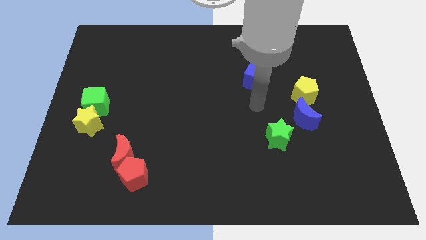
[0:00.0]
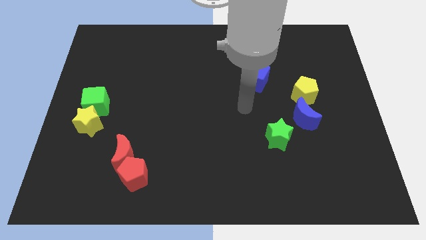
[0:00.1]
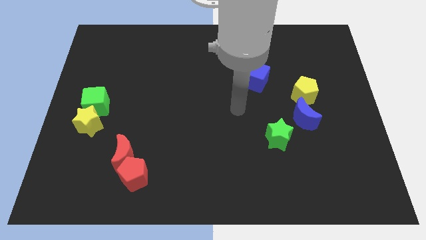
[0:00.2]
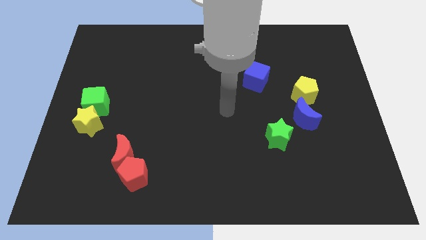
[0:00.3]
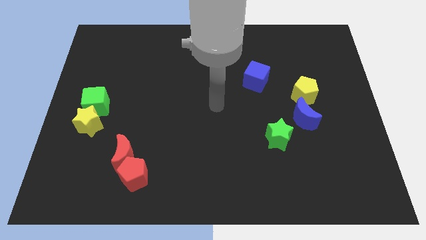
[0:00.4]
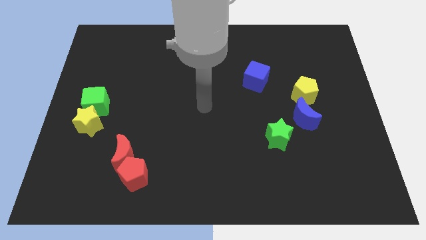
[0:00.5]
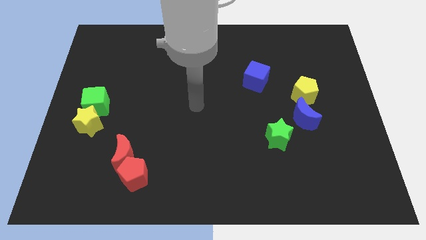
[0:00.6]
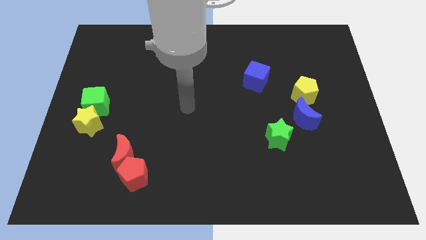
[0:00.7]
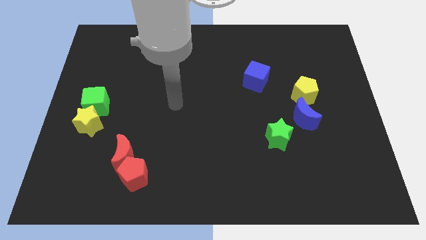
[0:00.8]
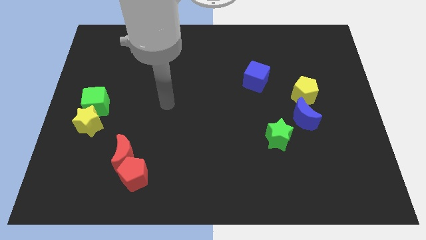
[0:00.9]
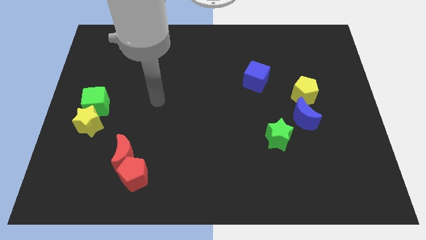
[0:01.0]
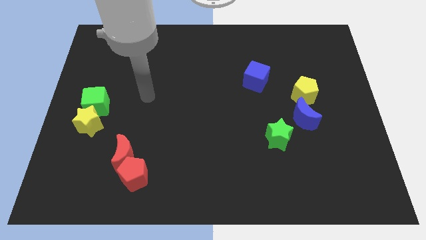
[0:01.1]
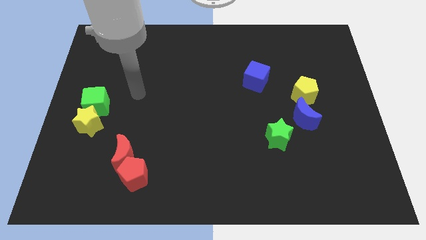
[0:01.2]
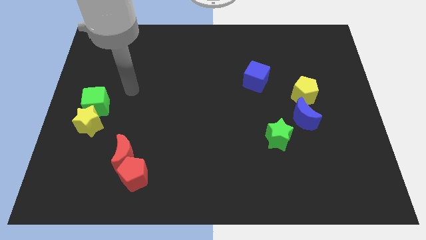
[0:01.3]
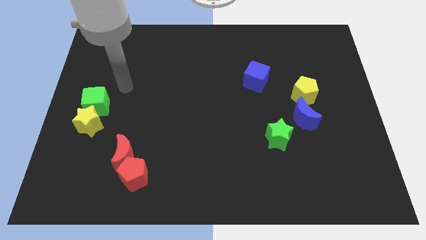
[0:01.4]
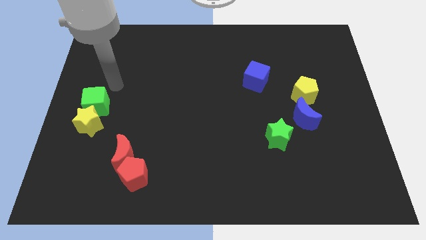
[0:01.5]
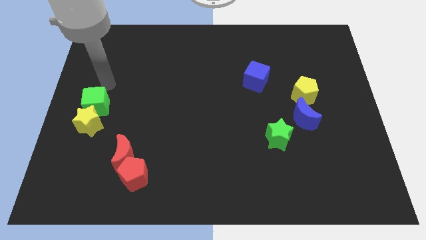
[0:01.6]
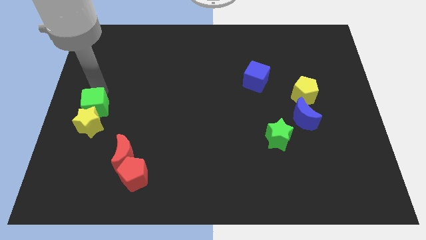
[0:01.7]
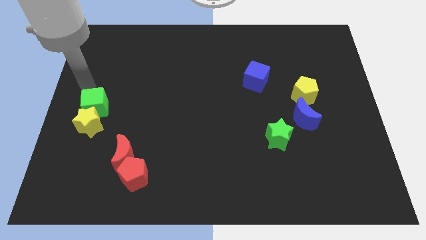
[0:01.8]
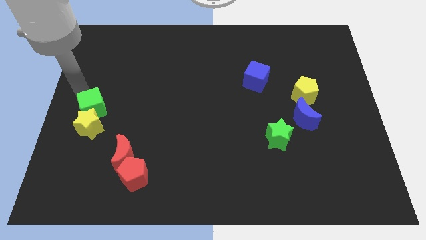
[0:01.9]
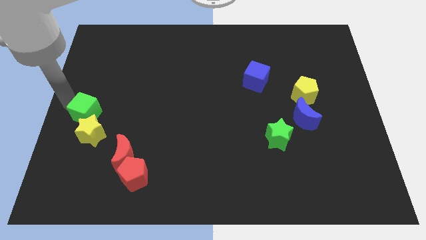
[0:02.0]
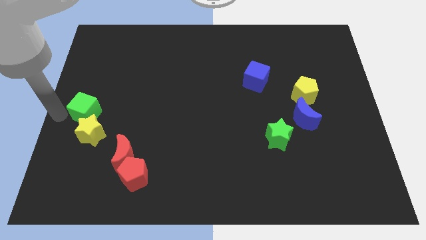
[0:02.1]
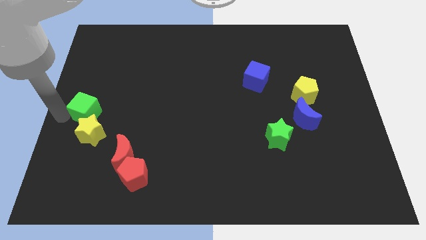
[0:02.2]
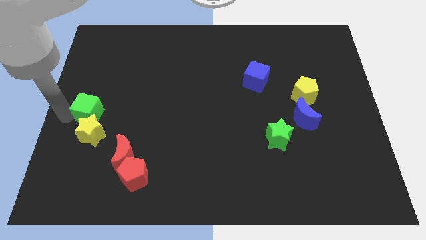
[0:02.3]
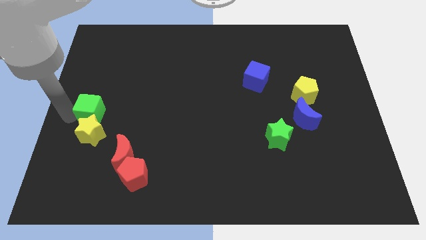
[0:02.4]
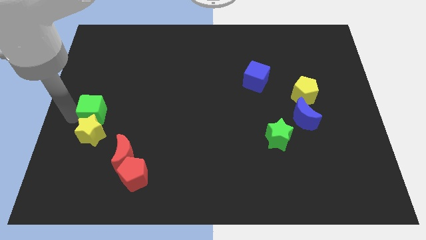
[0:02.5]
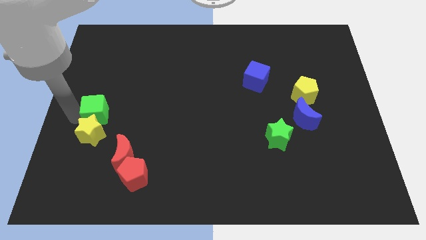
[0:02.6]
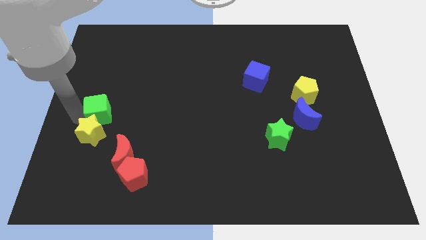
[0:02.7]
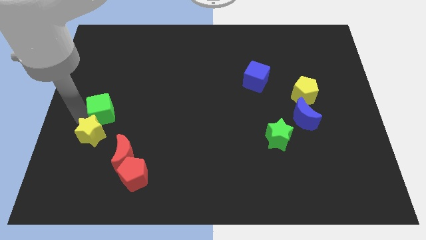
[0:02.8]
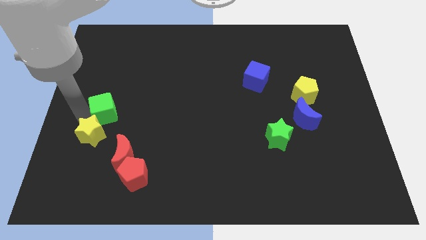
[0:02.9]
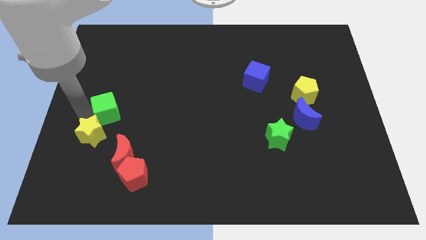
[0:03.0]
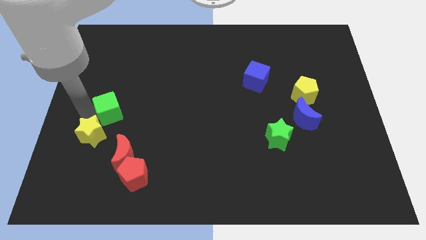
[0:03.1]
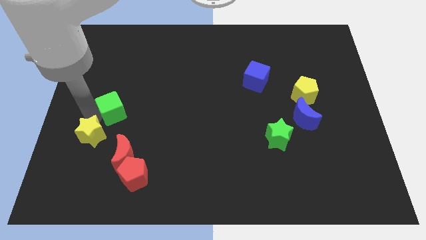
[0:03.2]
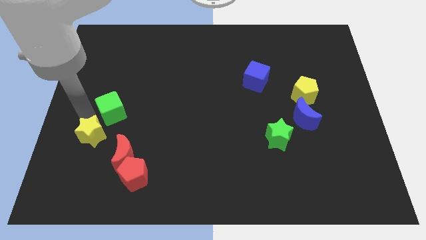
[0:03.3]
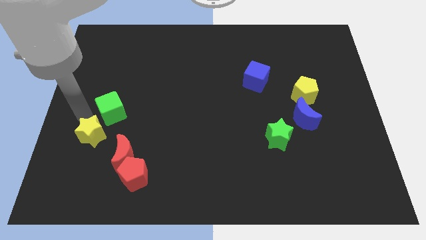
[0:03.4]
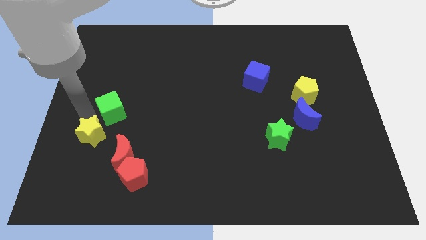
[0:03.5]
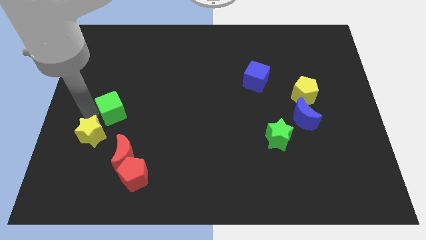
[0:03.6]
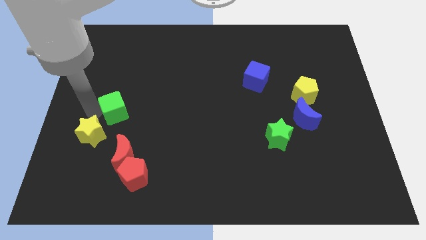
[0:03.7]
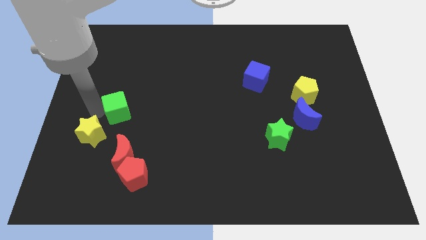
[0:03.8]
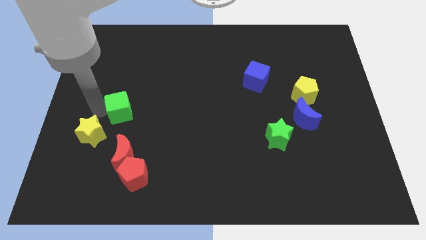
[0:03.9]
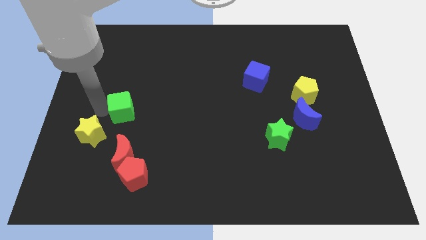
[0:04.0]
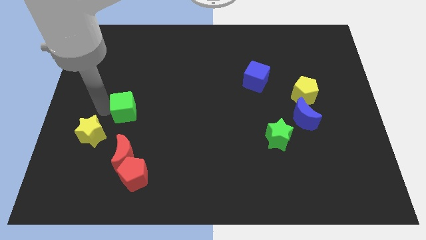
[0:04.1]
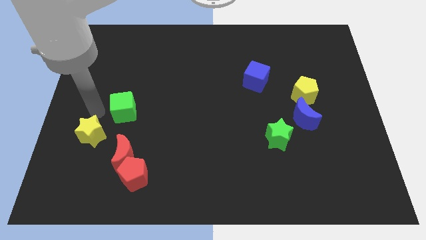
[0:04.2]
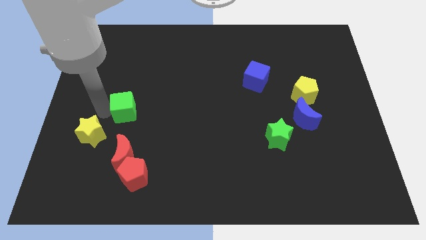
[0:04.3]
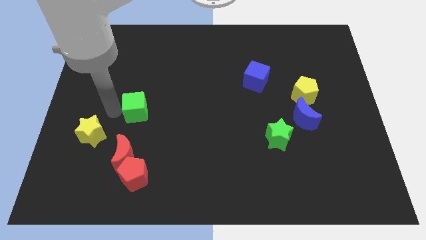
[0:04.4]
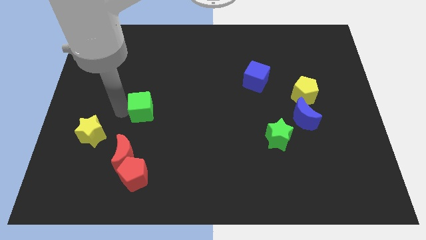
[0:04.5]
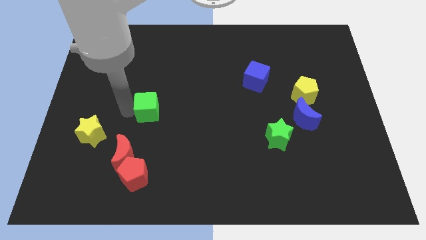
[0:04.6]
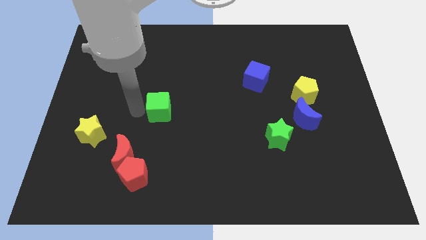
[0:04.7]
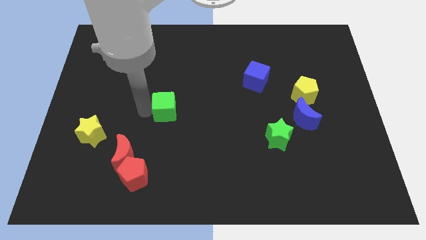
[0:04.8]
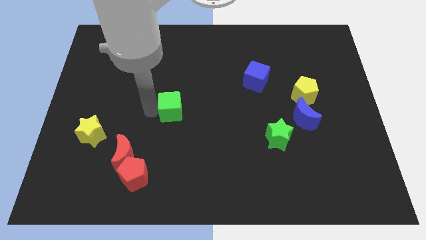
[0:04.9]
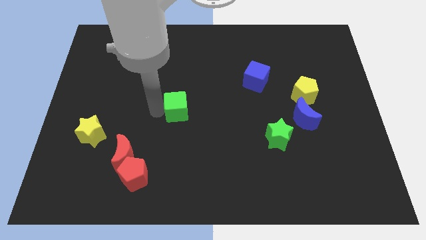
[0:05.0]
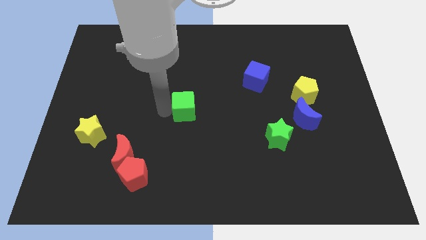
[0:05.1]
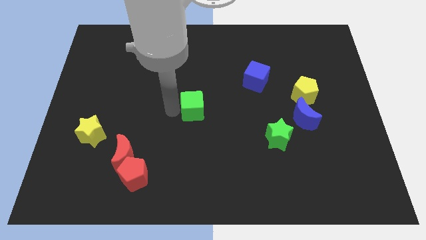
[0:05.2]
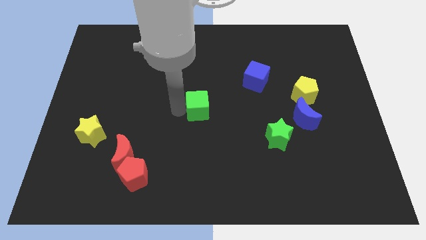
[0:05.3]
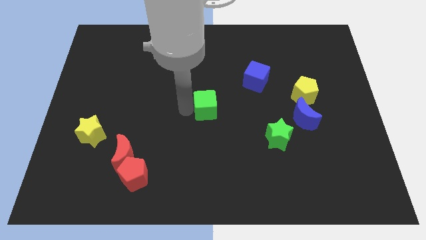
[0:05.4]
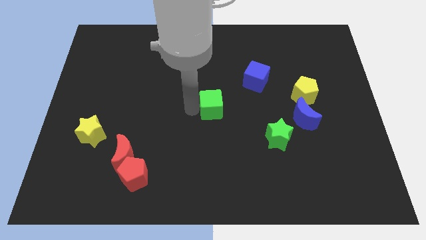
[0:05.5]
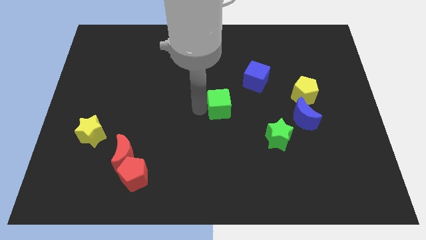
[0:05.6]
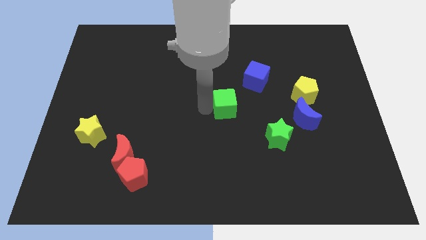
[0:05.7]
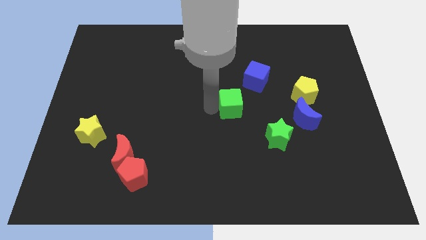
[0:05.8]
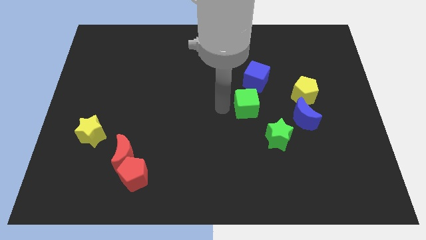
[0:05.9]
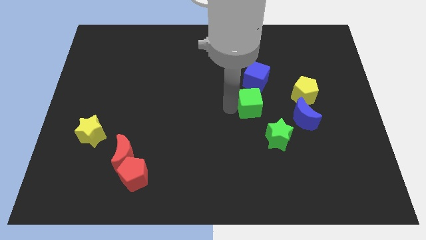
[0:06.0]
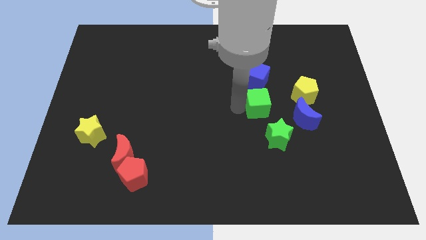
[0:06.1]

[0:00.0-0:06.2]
push the green cube to the top side of the green star

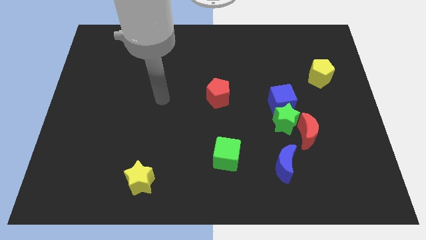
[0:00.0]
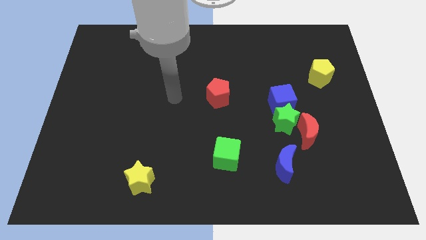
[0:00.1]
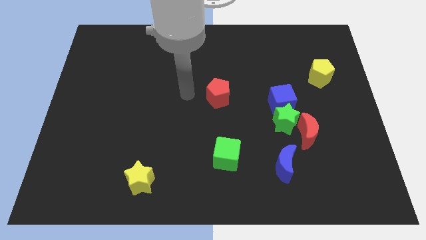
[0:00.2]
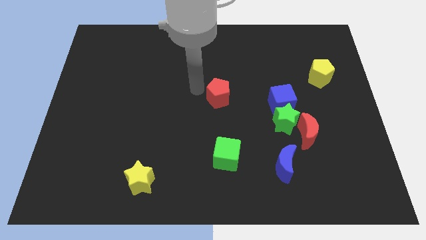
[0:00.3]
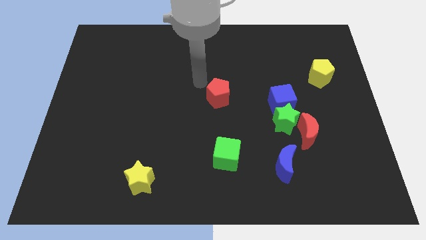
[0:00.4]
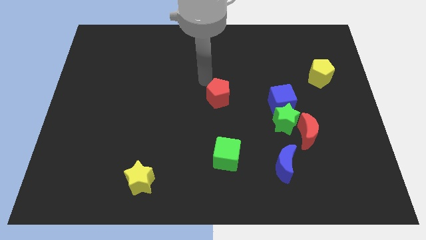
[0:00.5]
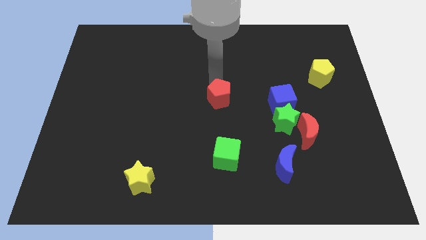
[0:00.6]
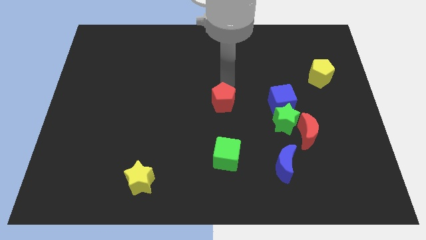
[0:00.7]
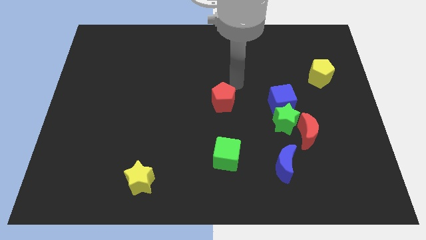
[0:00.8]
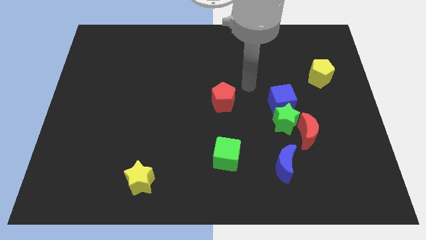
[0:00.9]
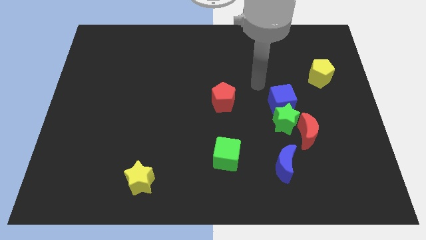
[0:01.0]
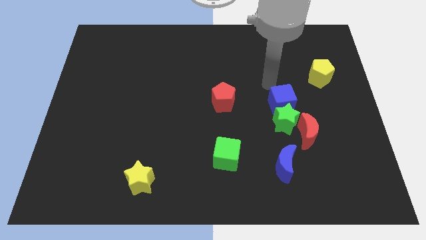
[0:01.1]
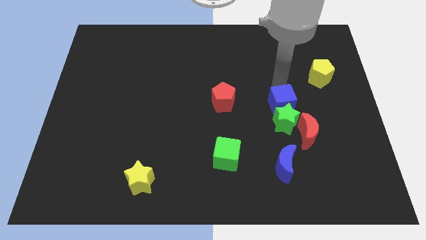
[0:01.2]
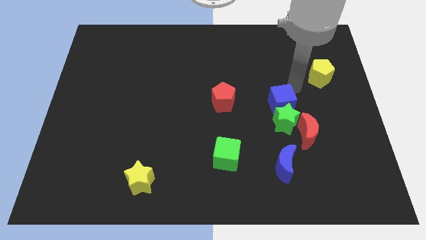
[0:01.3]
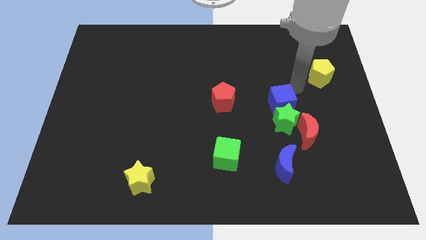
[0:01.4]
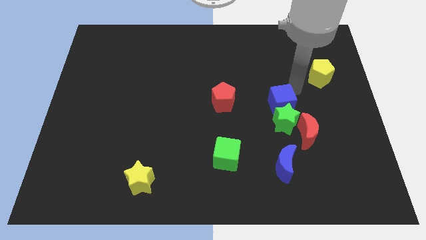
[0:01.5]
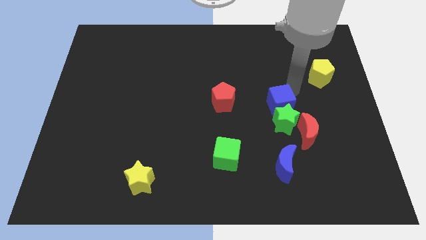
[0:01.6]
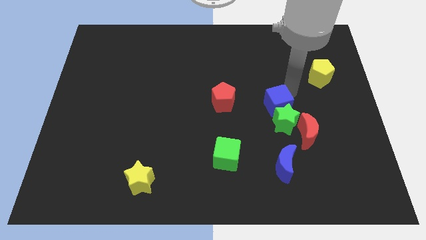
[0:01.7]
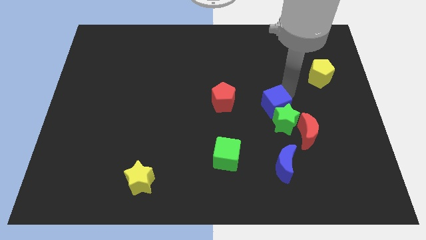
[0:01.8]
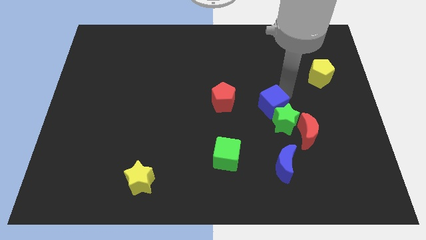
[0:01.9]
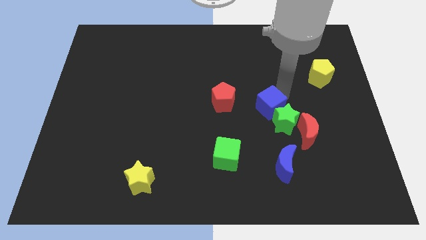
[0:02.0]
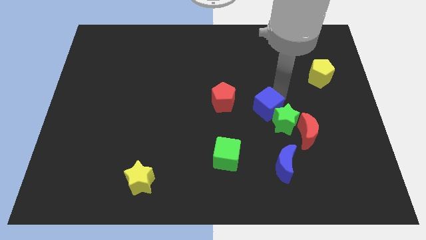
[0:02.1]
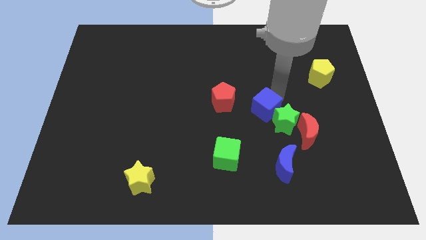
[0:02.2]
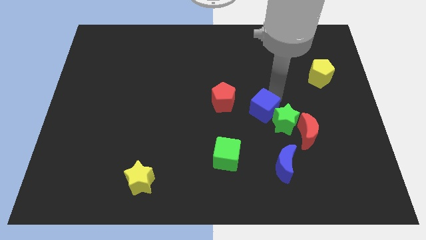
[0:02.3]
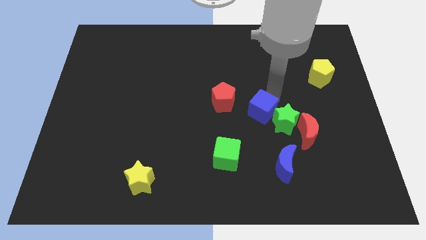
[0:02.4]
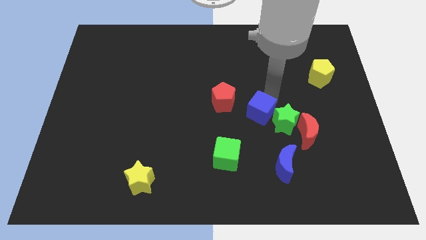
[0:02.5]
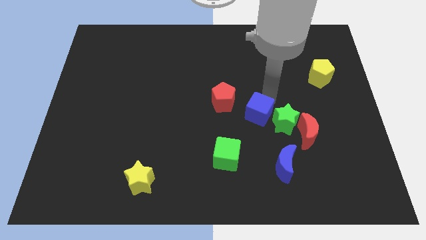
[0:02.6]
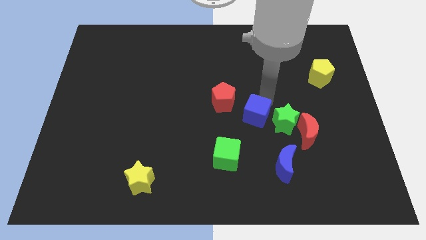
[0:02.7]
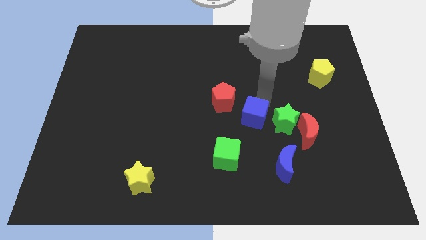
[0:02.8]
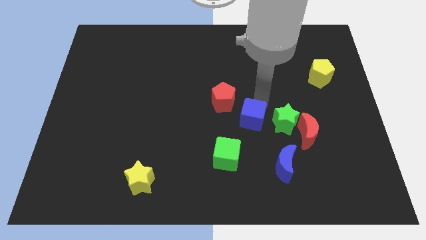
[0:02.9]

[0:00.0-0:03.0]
push the blue cube to the top right side of the green cube
